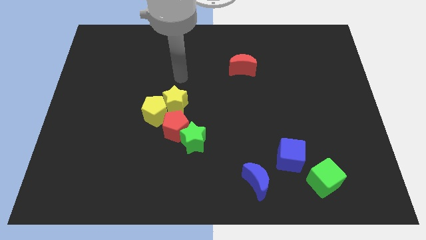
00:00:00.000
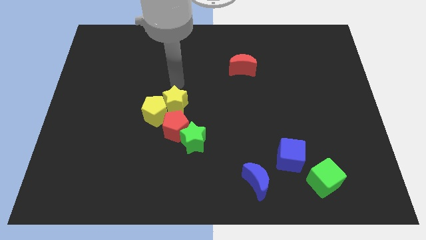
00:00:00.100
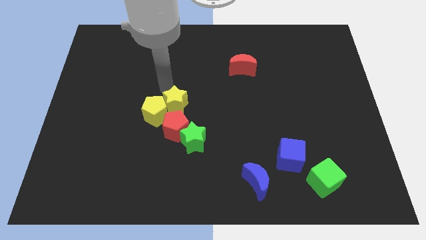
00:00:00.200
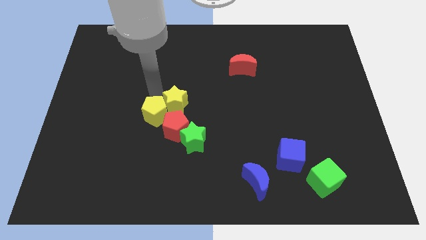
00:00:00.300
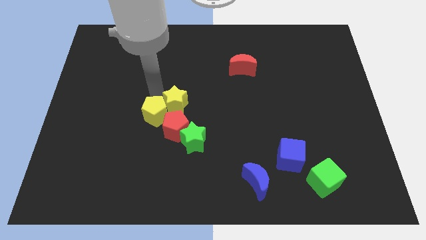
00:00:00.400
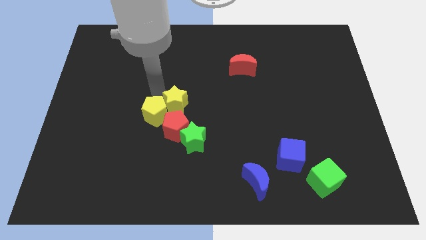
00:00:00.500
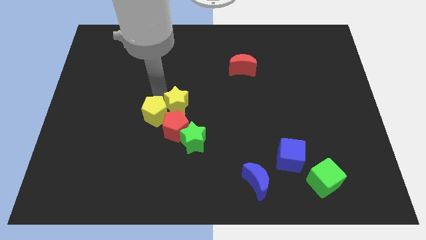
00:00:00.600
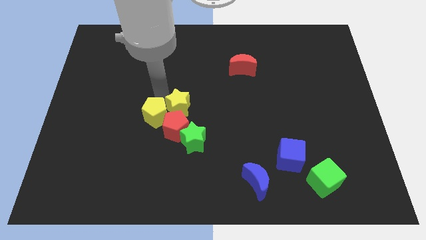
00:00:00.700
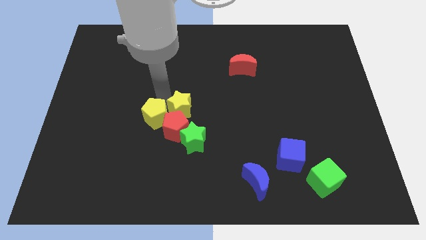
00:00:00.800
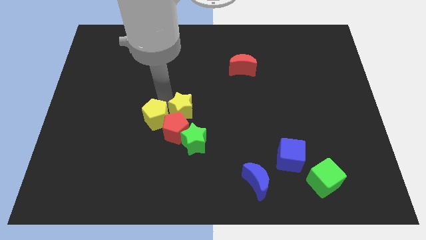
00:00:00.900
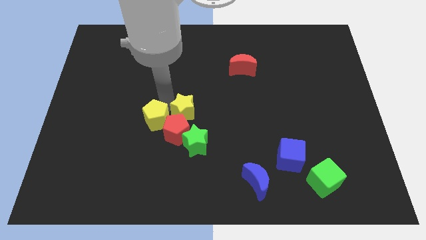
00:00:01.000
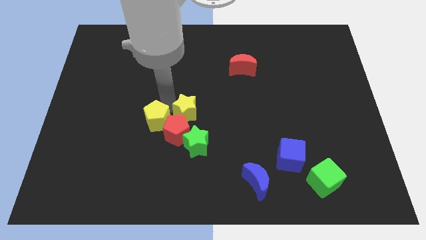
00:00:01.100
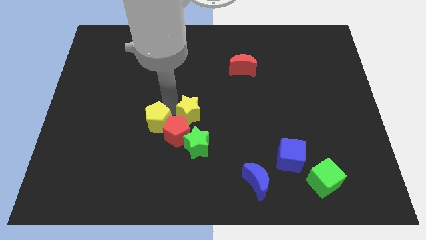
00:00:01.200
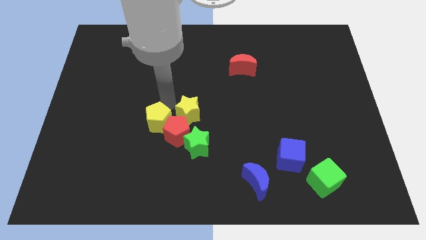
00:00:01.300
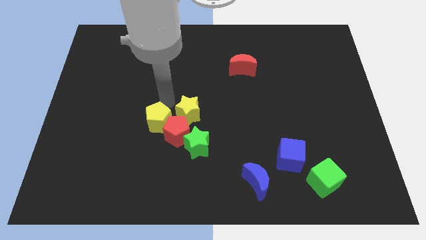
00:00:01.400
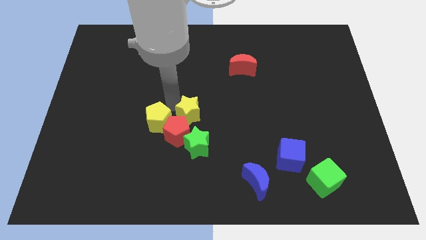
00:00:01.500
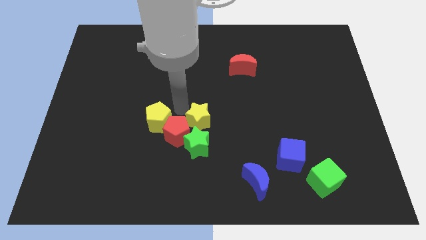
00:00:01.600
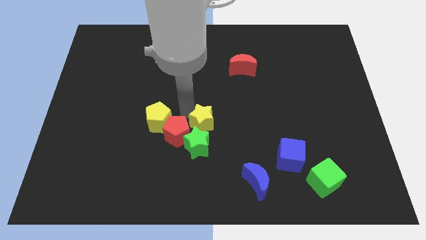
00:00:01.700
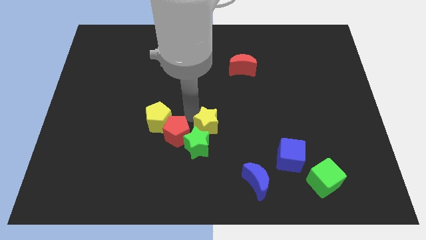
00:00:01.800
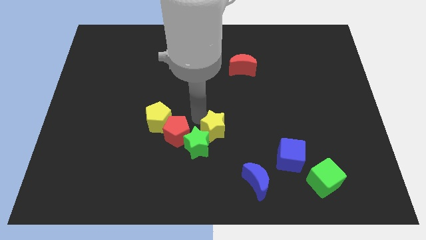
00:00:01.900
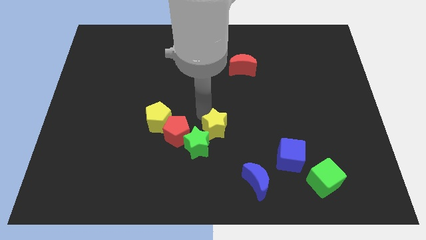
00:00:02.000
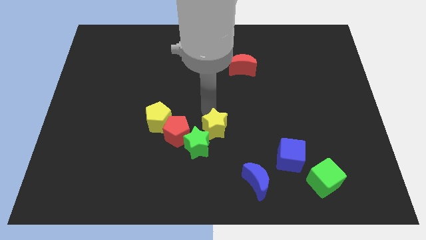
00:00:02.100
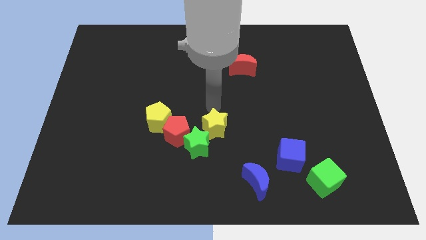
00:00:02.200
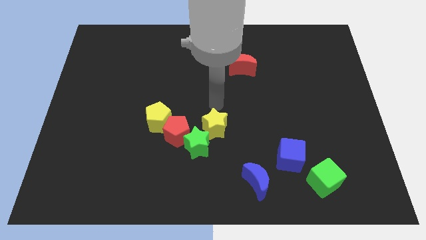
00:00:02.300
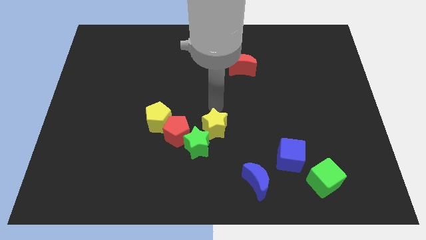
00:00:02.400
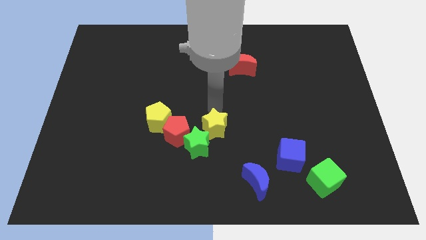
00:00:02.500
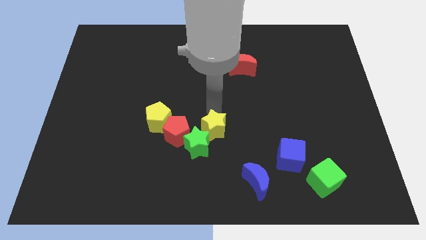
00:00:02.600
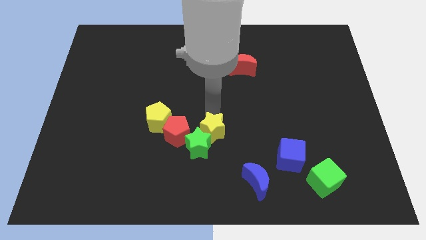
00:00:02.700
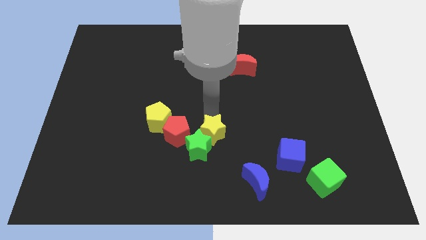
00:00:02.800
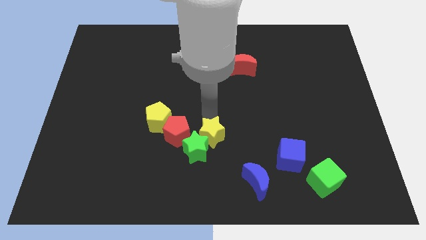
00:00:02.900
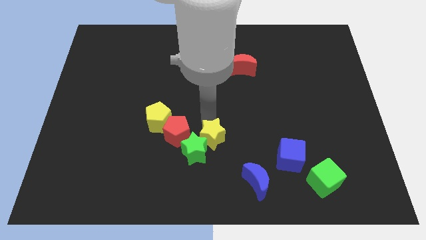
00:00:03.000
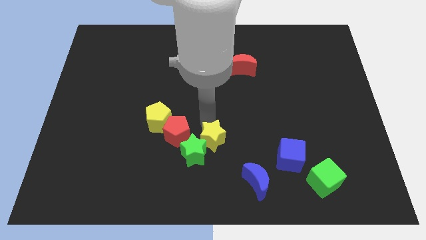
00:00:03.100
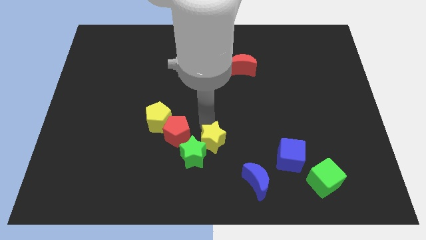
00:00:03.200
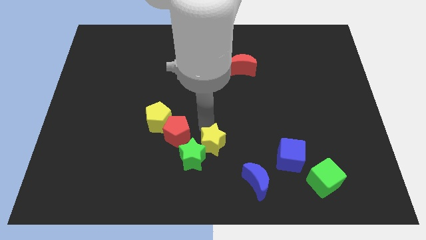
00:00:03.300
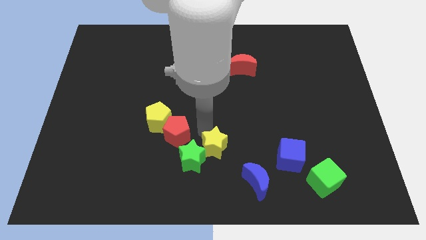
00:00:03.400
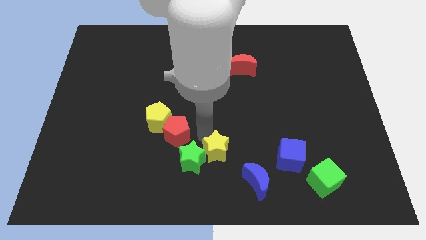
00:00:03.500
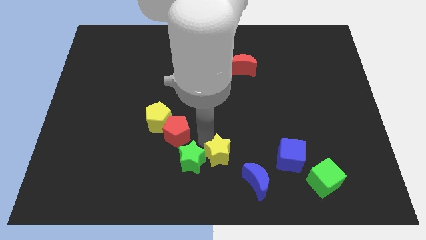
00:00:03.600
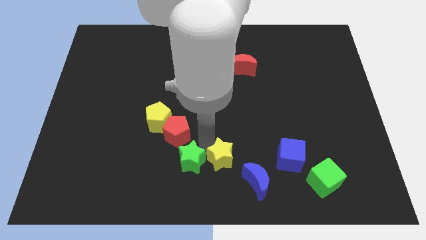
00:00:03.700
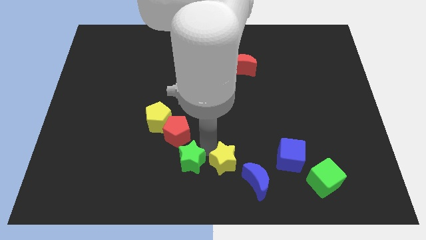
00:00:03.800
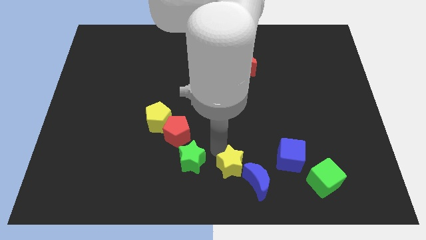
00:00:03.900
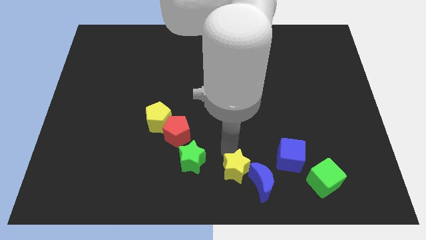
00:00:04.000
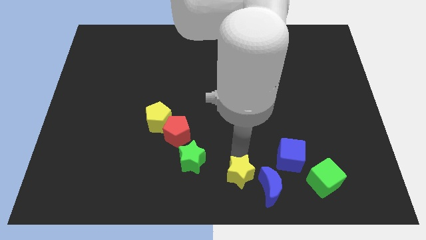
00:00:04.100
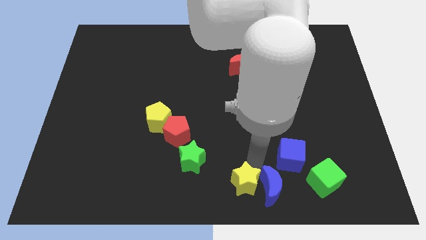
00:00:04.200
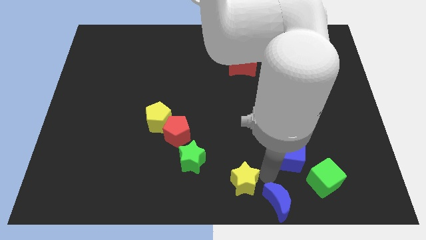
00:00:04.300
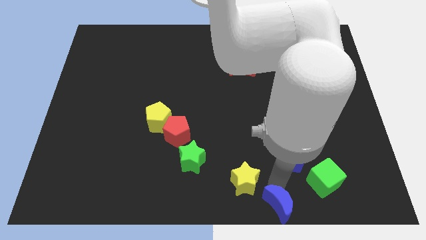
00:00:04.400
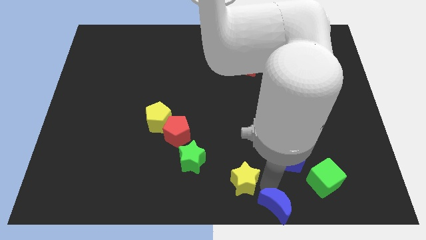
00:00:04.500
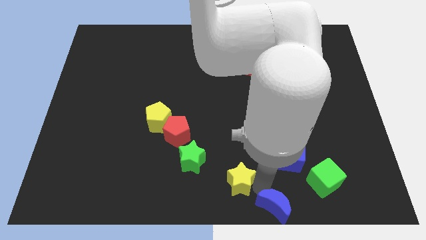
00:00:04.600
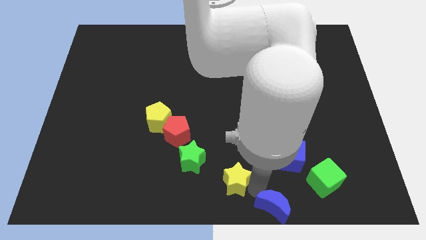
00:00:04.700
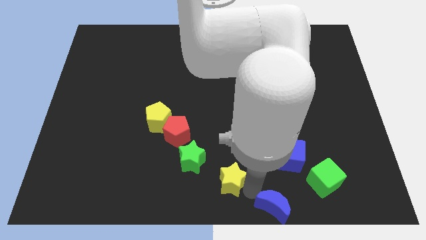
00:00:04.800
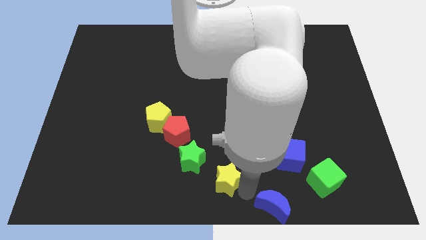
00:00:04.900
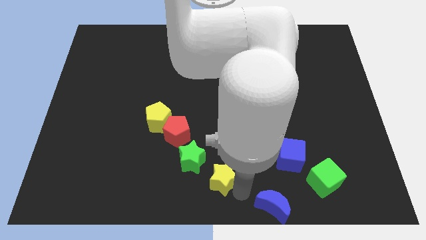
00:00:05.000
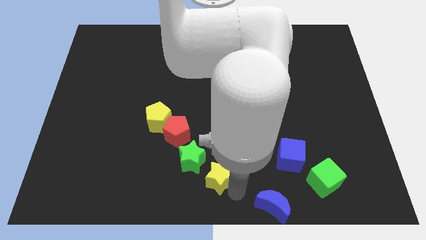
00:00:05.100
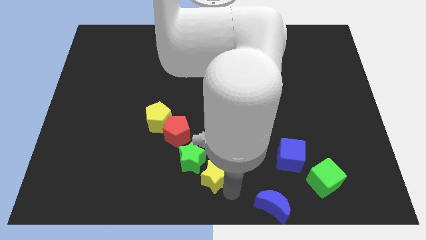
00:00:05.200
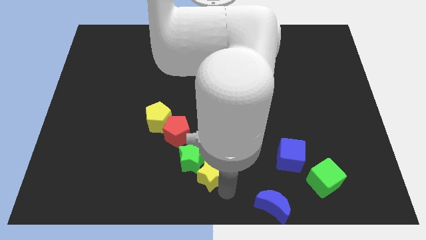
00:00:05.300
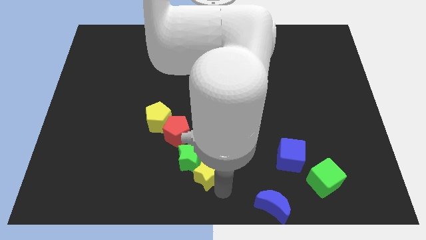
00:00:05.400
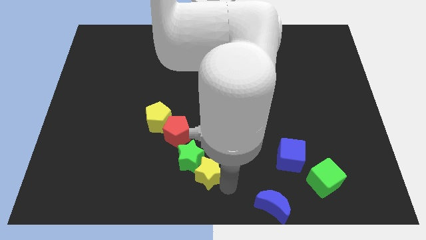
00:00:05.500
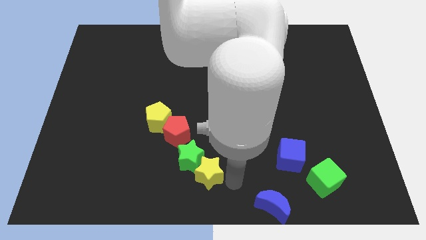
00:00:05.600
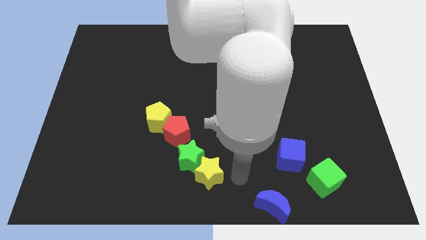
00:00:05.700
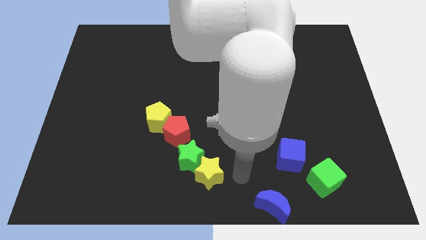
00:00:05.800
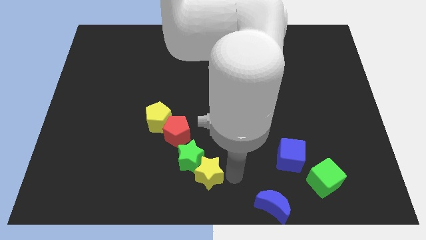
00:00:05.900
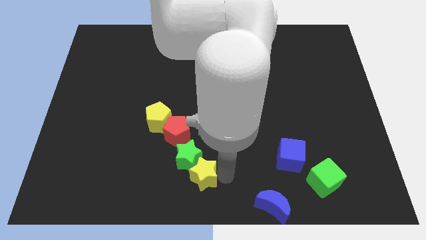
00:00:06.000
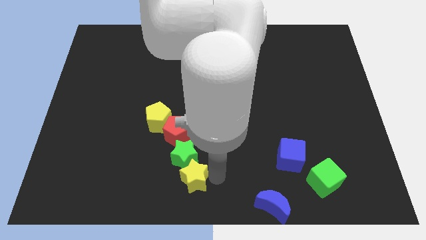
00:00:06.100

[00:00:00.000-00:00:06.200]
put the yellow star to the bottom side of the red pentagon

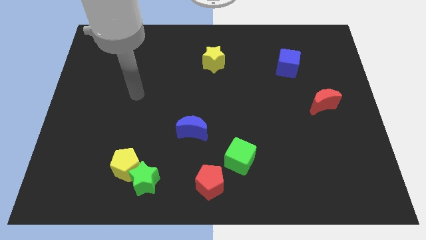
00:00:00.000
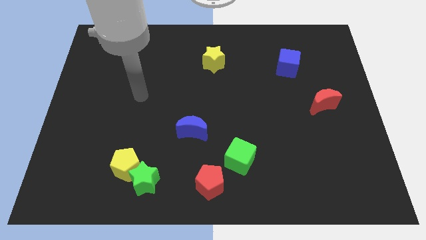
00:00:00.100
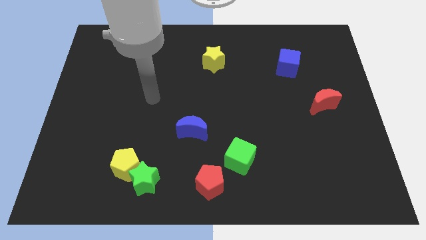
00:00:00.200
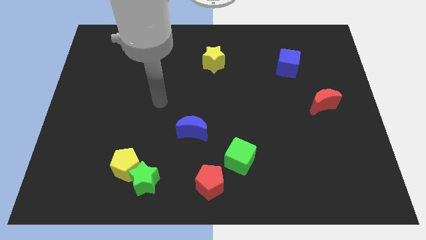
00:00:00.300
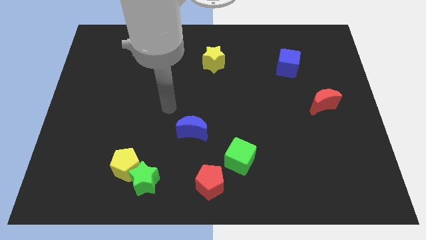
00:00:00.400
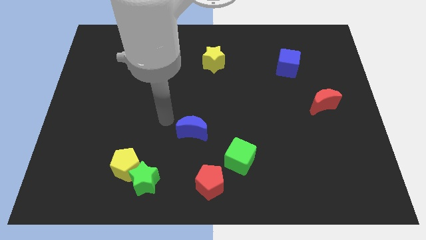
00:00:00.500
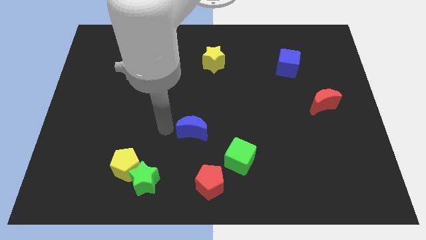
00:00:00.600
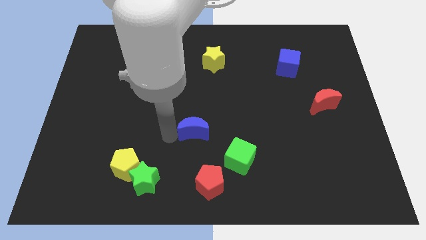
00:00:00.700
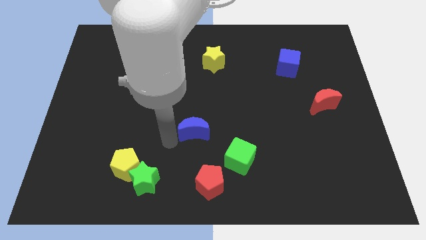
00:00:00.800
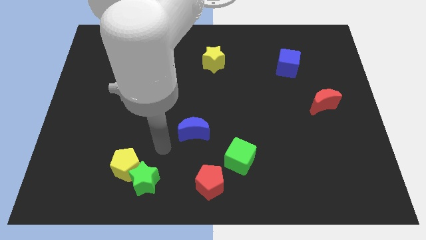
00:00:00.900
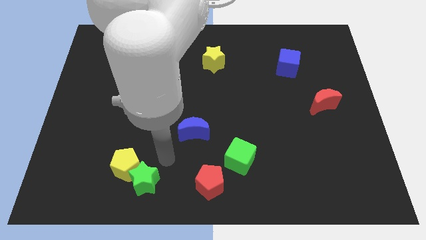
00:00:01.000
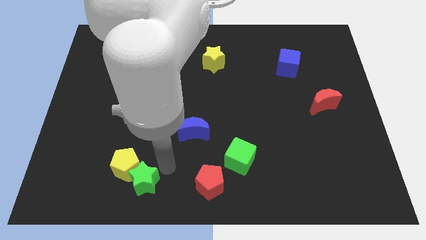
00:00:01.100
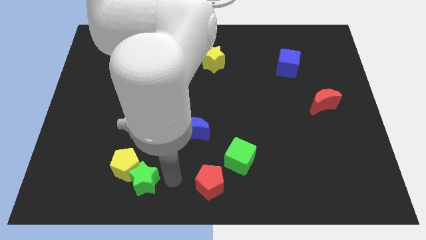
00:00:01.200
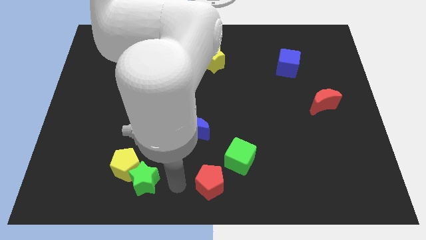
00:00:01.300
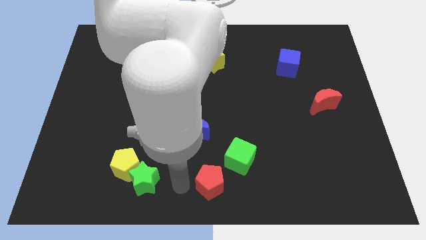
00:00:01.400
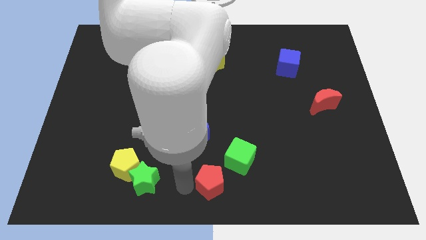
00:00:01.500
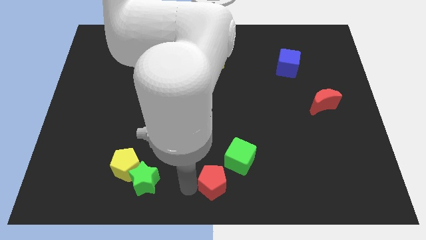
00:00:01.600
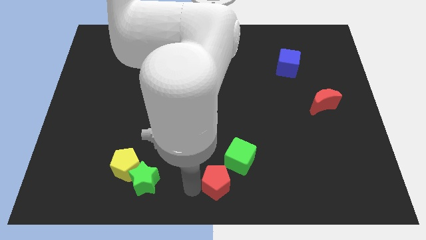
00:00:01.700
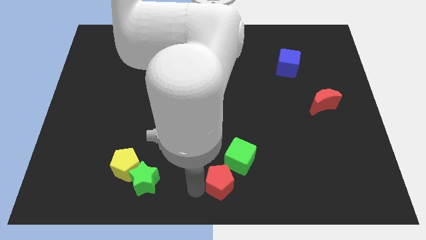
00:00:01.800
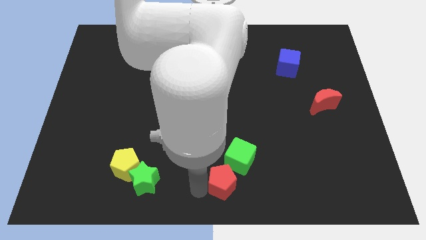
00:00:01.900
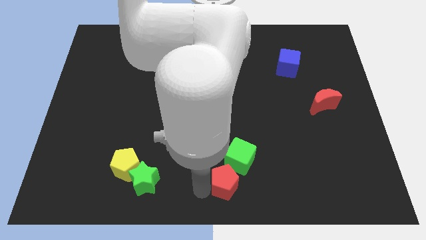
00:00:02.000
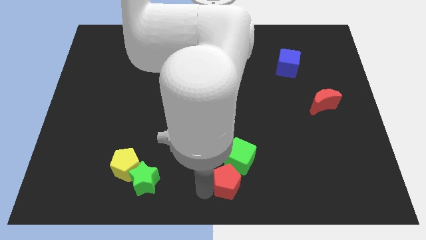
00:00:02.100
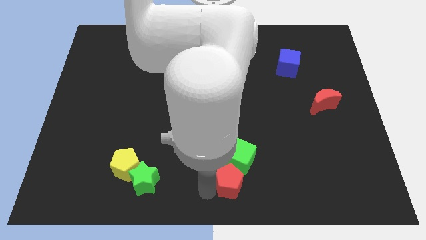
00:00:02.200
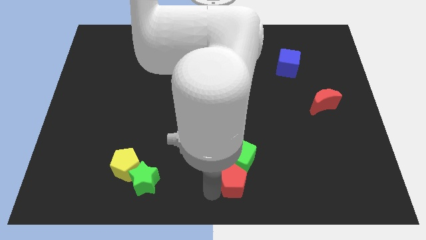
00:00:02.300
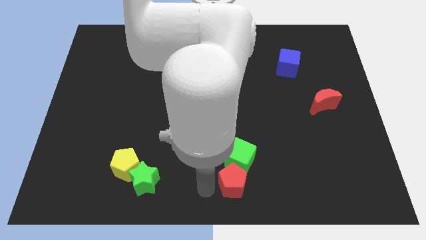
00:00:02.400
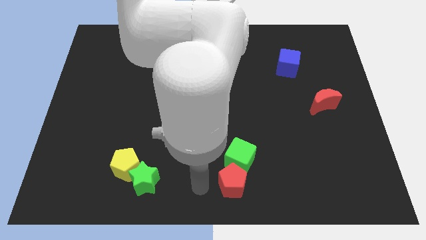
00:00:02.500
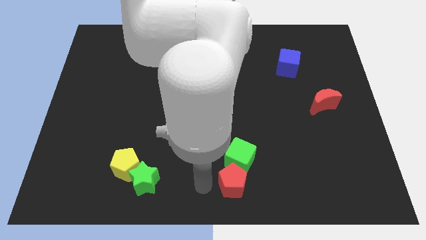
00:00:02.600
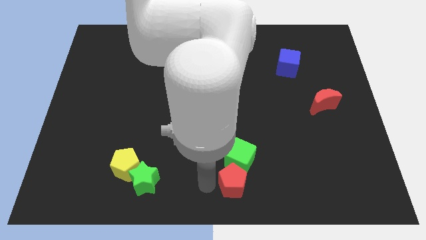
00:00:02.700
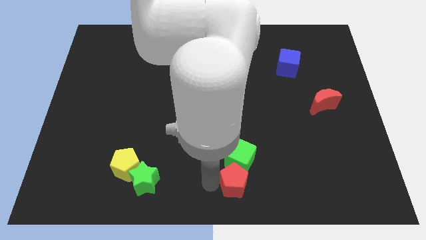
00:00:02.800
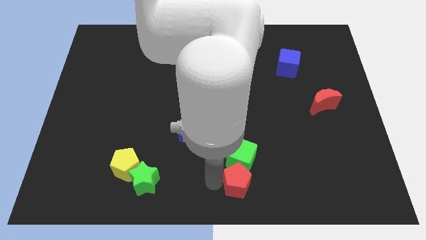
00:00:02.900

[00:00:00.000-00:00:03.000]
slide the red pentagon to the bottom right side of the green cube
